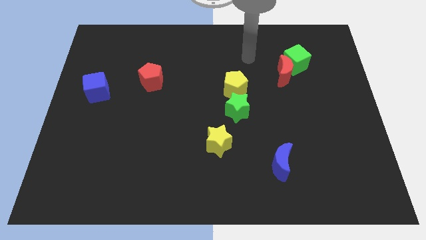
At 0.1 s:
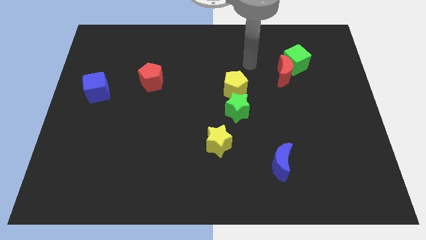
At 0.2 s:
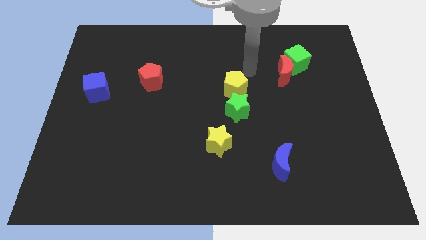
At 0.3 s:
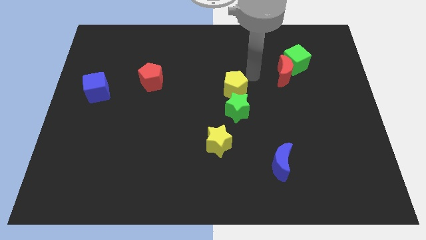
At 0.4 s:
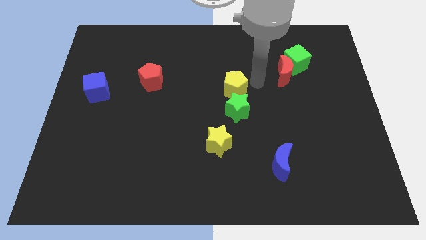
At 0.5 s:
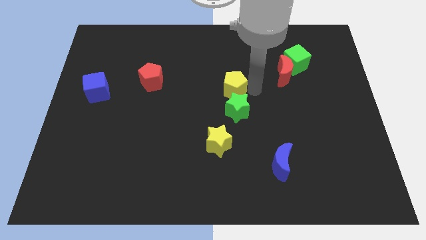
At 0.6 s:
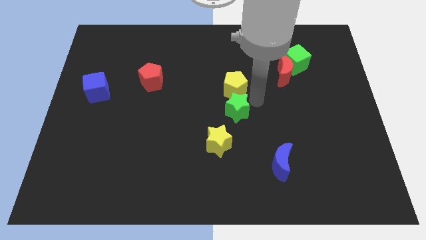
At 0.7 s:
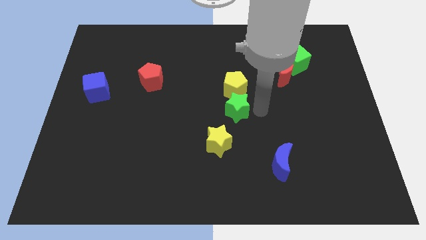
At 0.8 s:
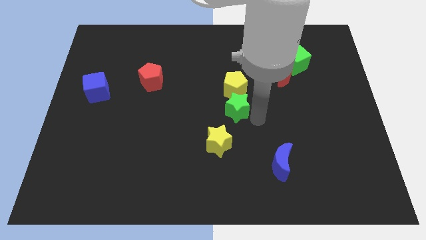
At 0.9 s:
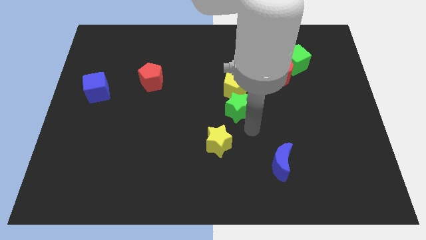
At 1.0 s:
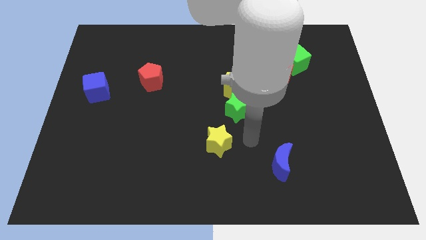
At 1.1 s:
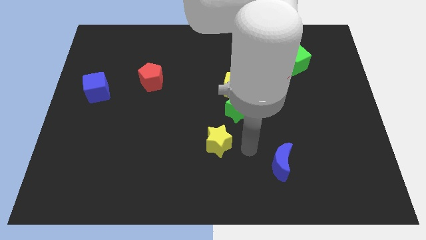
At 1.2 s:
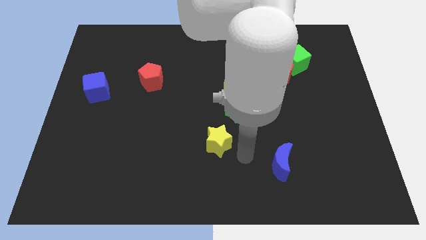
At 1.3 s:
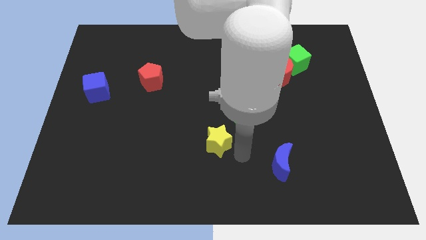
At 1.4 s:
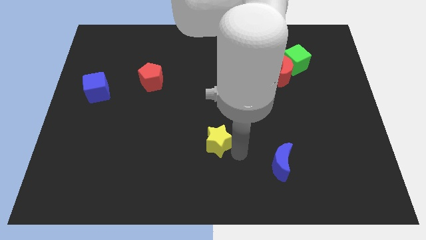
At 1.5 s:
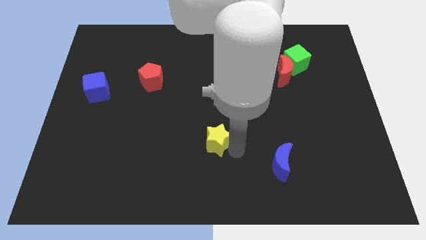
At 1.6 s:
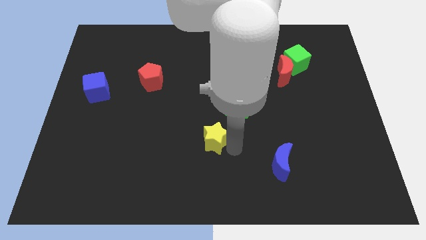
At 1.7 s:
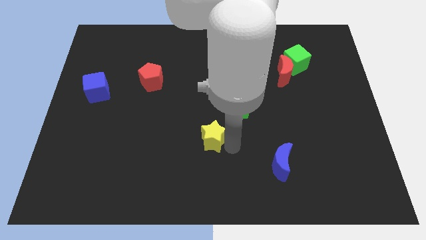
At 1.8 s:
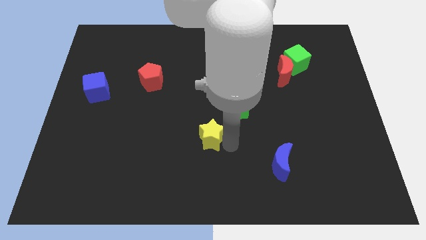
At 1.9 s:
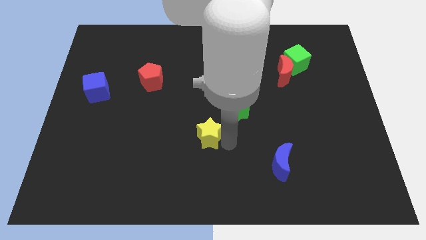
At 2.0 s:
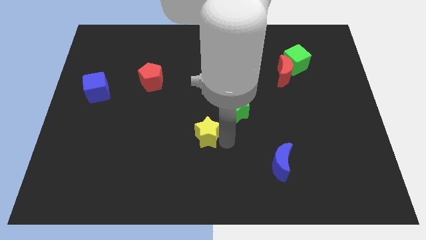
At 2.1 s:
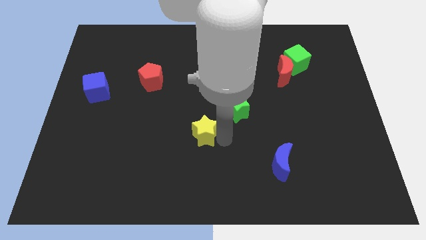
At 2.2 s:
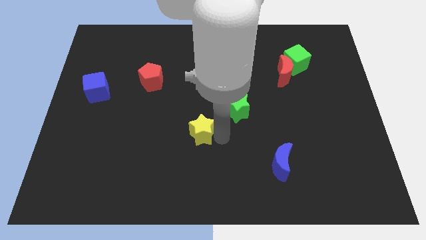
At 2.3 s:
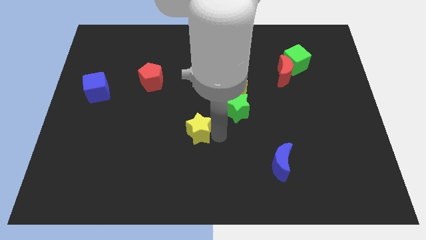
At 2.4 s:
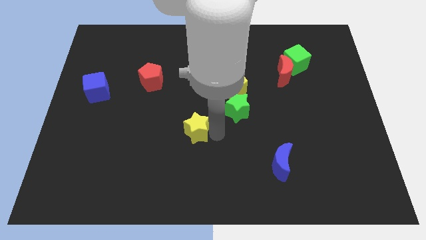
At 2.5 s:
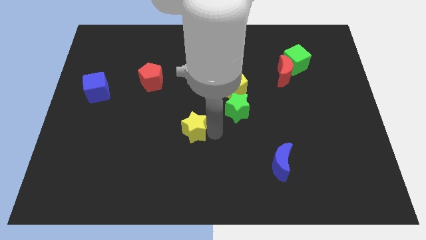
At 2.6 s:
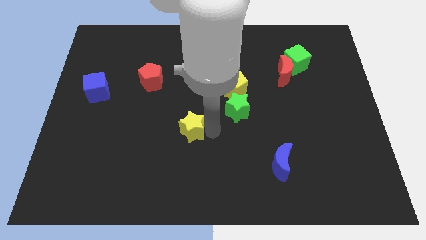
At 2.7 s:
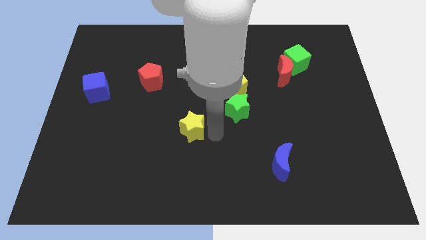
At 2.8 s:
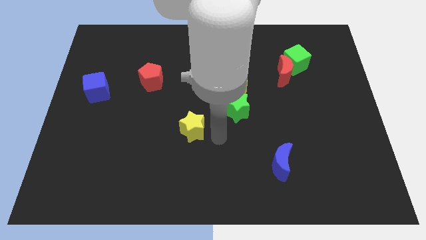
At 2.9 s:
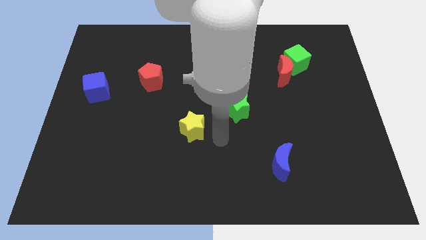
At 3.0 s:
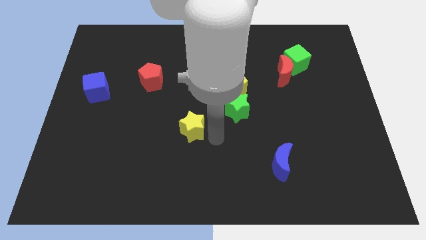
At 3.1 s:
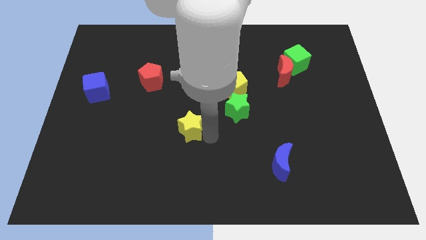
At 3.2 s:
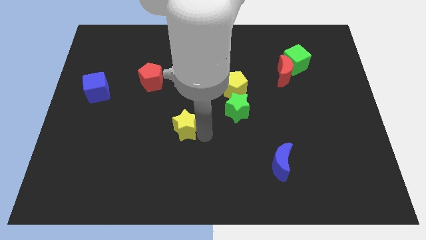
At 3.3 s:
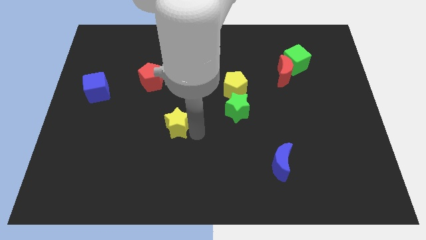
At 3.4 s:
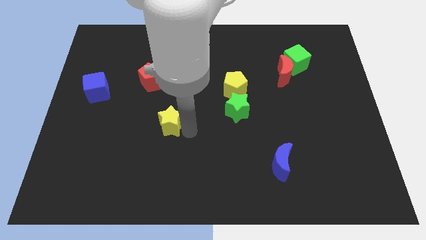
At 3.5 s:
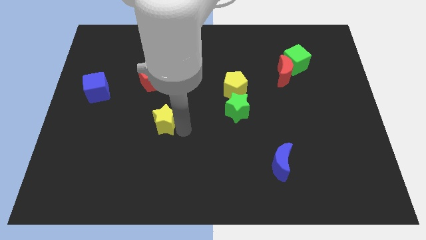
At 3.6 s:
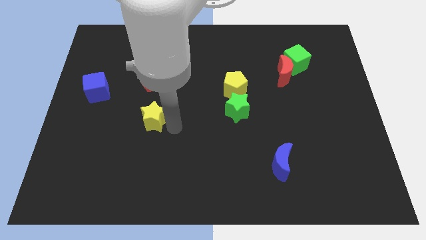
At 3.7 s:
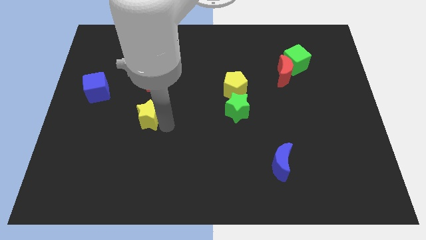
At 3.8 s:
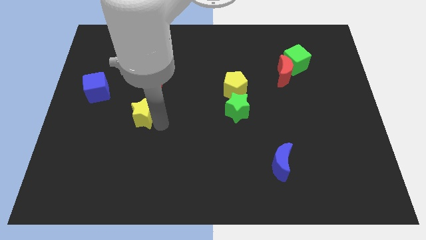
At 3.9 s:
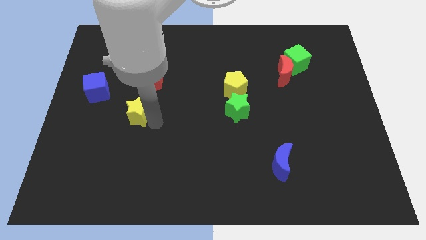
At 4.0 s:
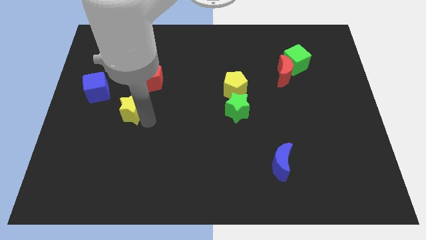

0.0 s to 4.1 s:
move the yellow star to the bottom left of the red pentagon

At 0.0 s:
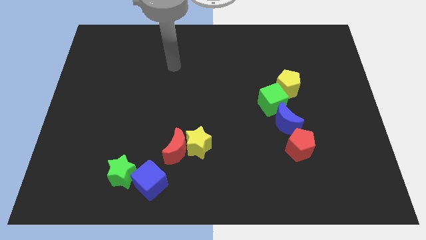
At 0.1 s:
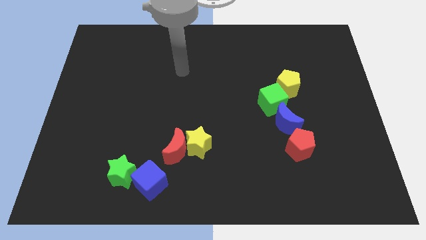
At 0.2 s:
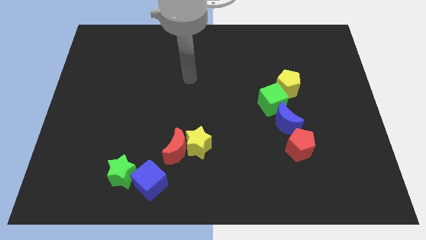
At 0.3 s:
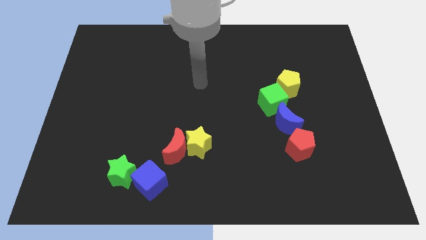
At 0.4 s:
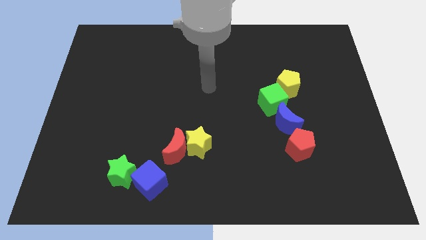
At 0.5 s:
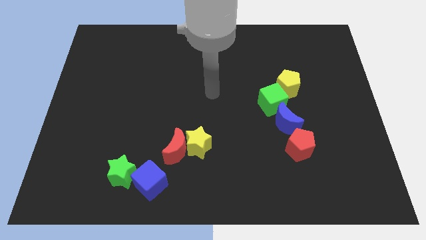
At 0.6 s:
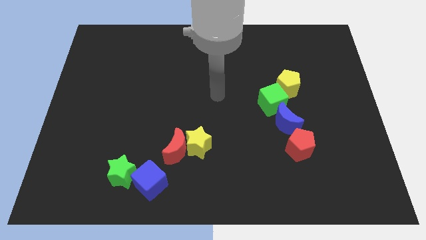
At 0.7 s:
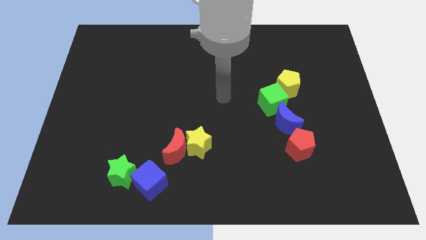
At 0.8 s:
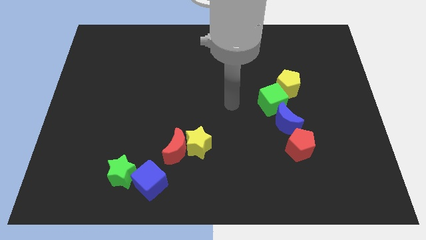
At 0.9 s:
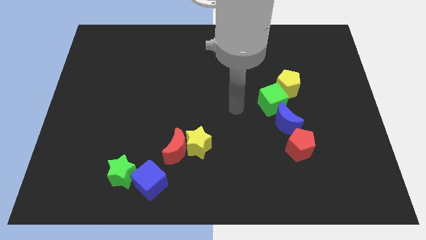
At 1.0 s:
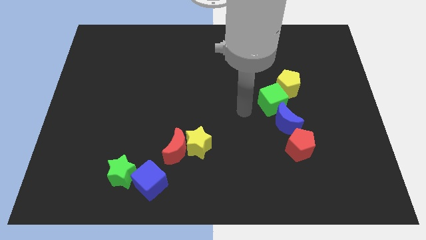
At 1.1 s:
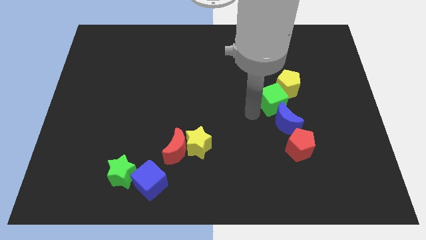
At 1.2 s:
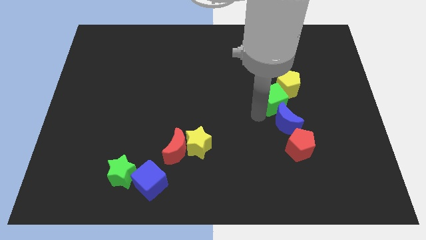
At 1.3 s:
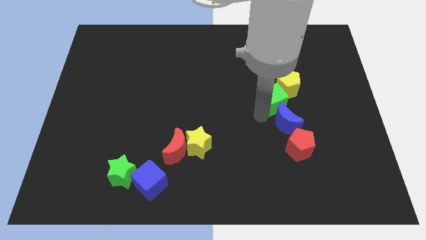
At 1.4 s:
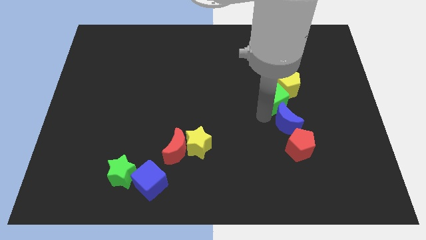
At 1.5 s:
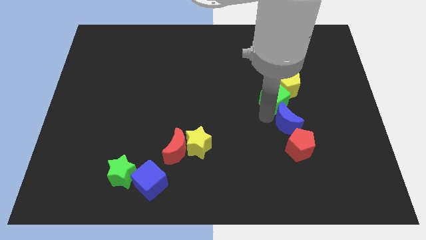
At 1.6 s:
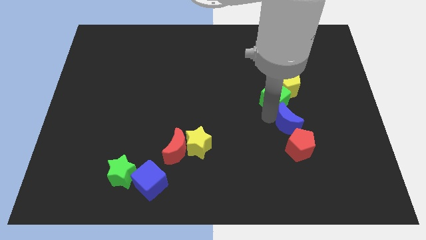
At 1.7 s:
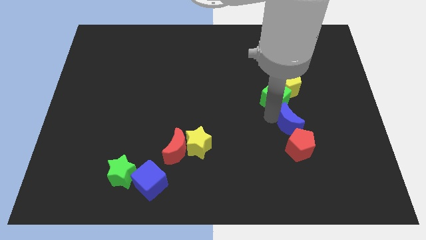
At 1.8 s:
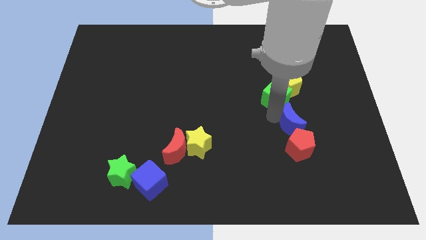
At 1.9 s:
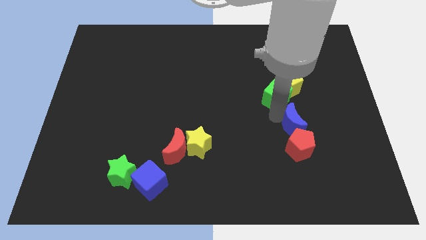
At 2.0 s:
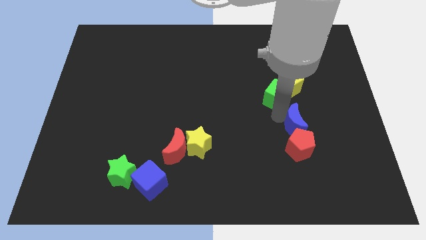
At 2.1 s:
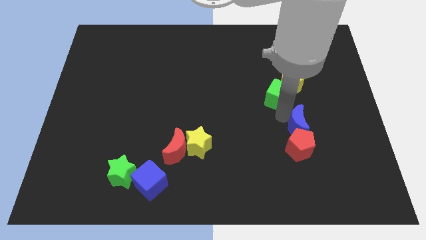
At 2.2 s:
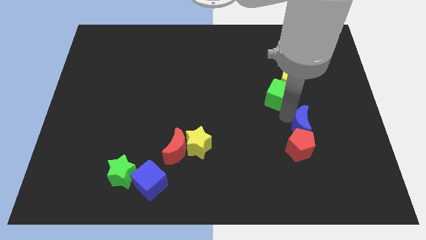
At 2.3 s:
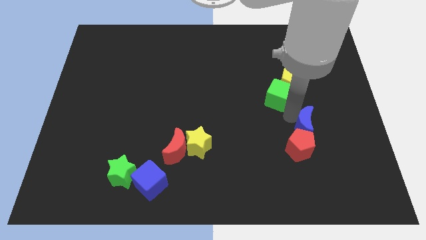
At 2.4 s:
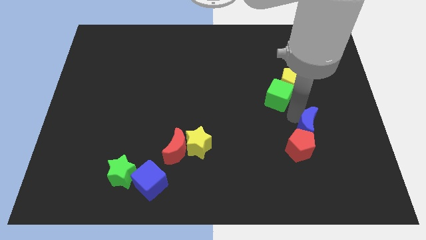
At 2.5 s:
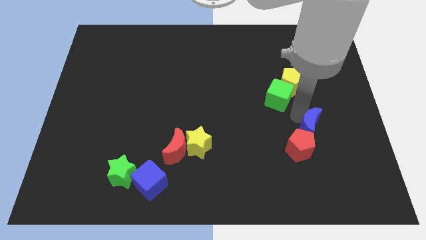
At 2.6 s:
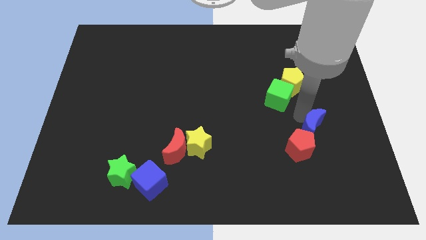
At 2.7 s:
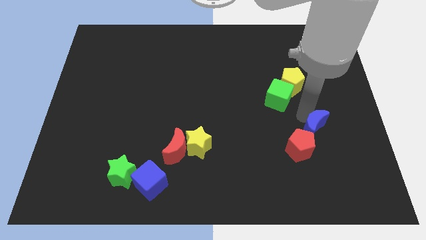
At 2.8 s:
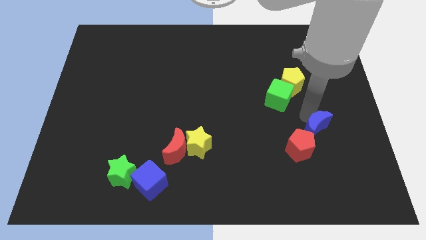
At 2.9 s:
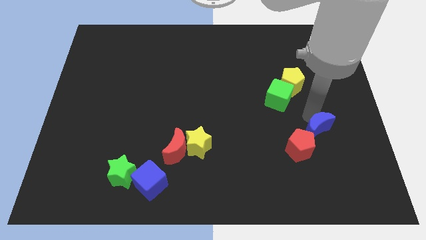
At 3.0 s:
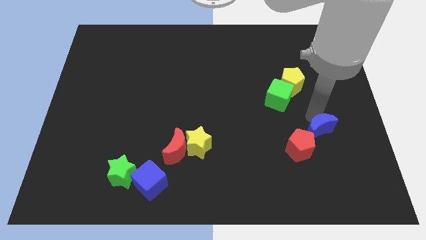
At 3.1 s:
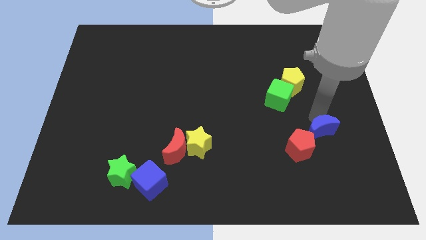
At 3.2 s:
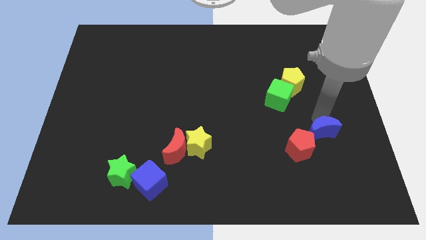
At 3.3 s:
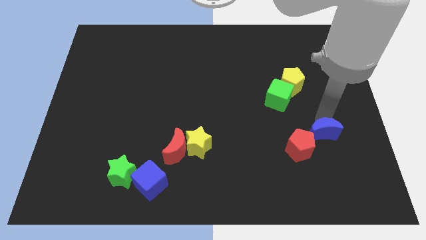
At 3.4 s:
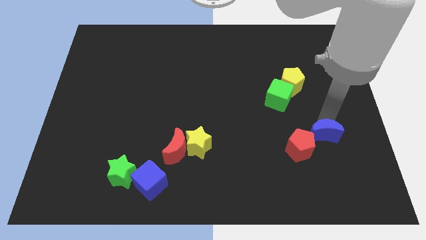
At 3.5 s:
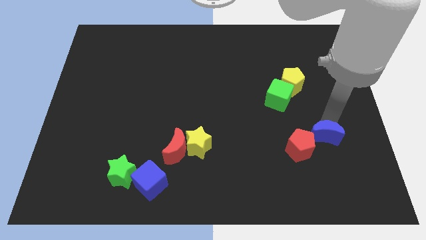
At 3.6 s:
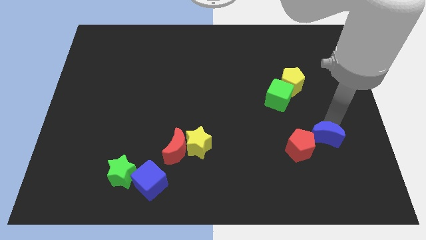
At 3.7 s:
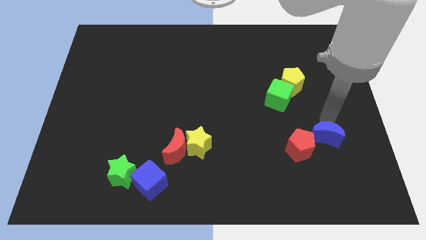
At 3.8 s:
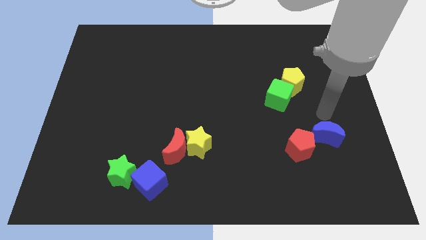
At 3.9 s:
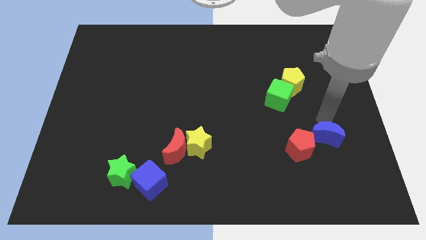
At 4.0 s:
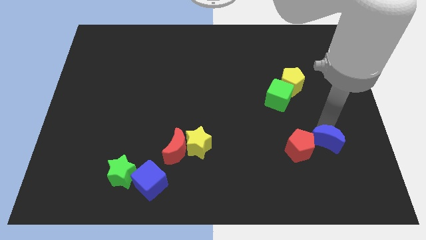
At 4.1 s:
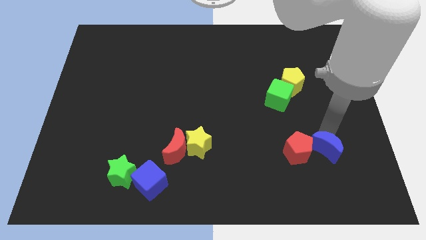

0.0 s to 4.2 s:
push the blue moon to the bottom right side of the red pentagon

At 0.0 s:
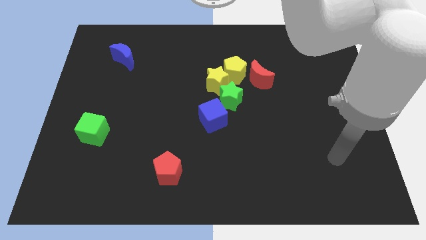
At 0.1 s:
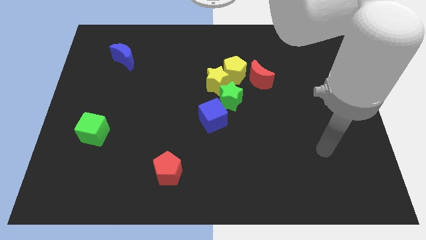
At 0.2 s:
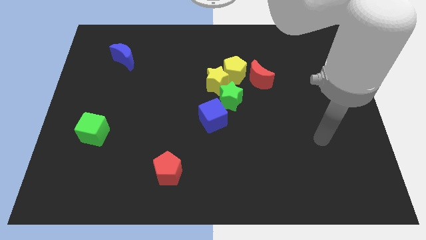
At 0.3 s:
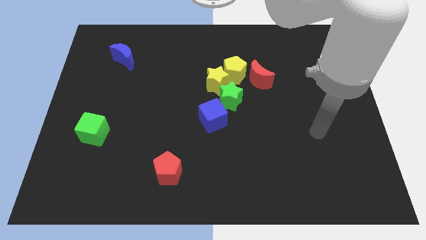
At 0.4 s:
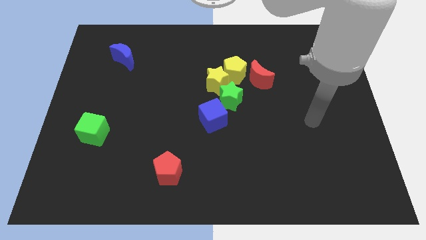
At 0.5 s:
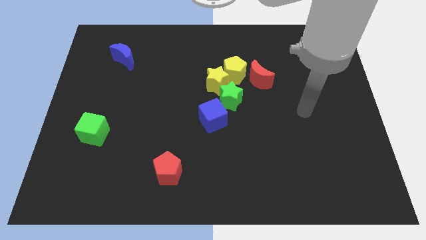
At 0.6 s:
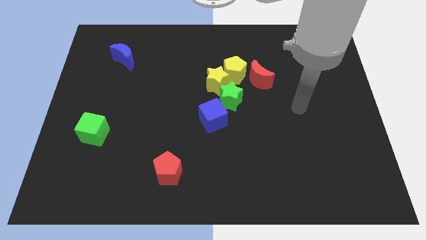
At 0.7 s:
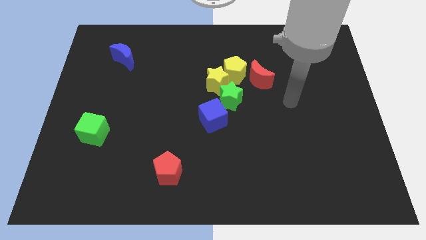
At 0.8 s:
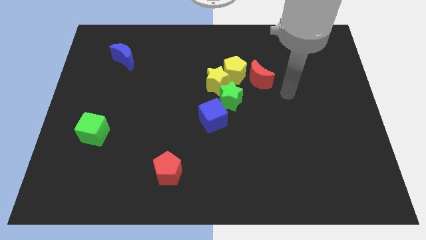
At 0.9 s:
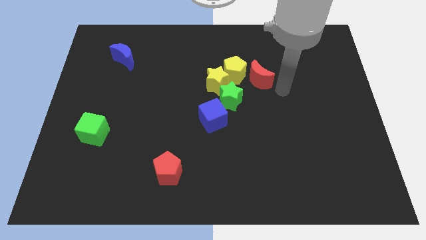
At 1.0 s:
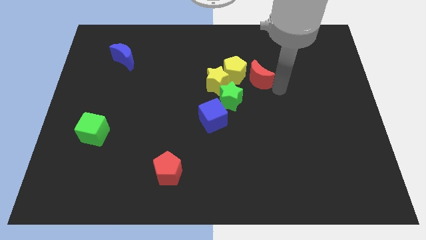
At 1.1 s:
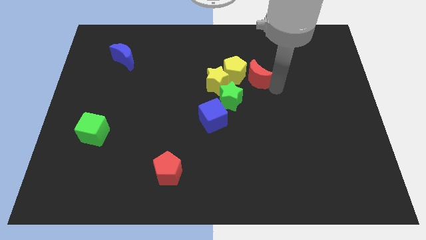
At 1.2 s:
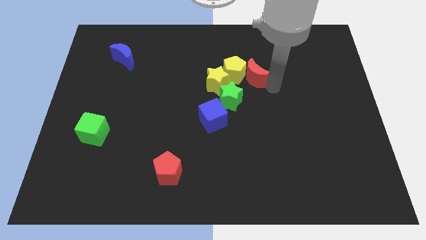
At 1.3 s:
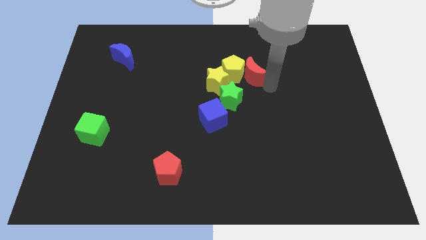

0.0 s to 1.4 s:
slide the red moon to the top right of the yellow star
